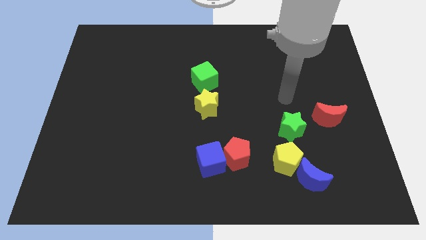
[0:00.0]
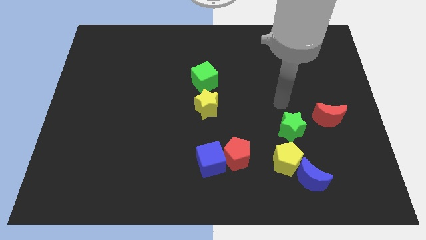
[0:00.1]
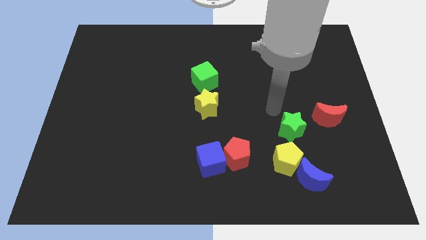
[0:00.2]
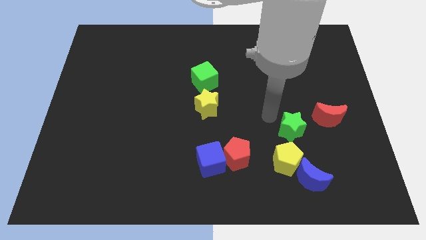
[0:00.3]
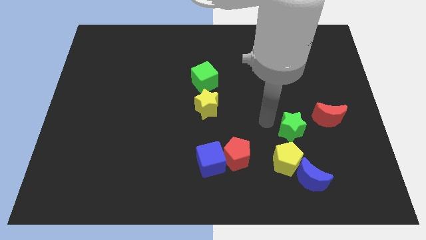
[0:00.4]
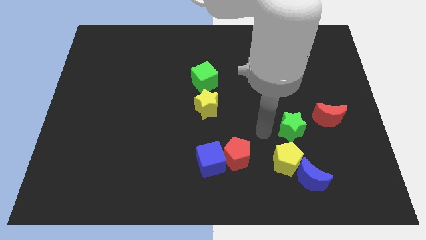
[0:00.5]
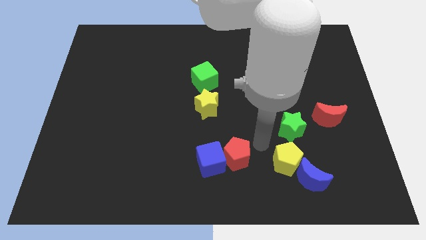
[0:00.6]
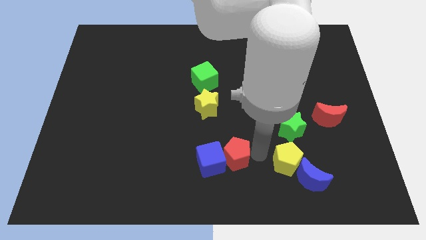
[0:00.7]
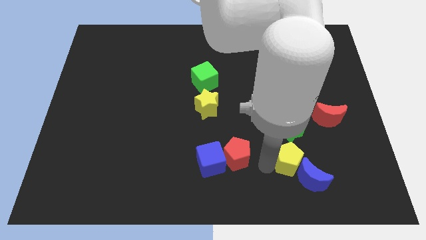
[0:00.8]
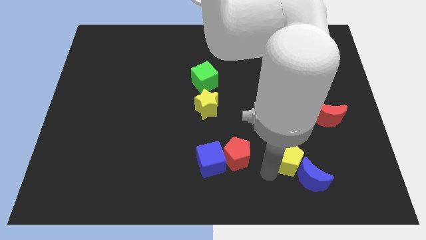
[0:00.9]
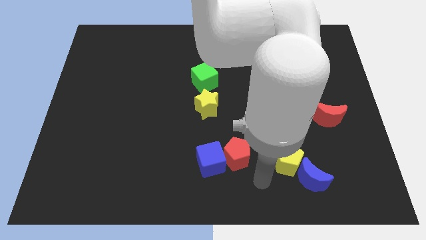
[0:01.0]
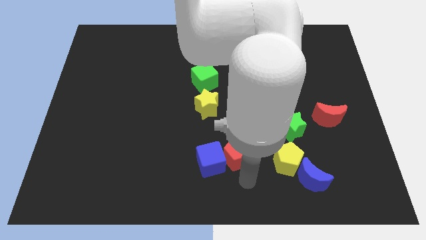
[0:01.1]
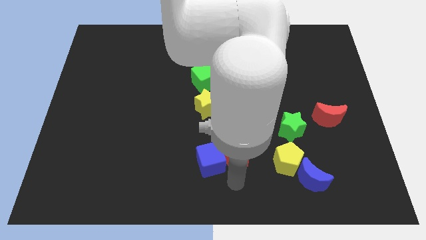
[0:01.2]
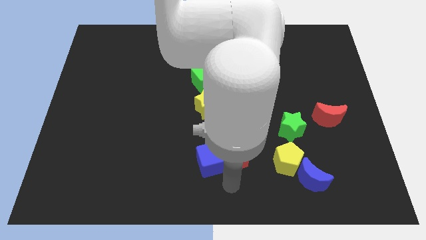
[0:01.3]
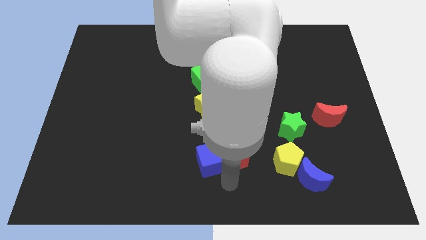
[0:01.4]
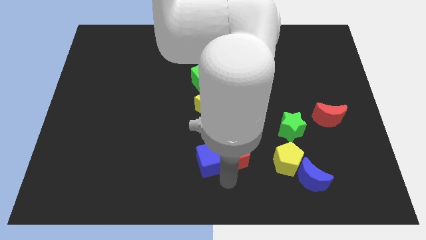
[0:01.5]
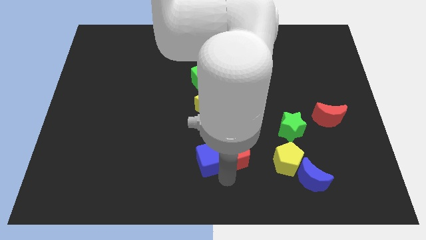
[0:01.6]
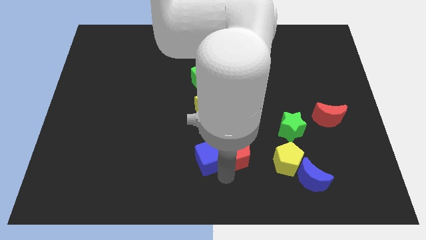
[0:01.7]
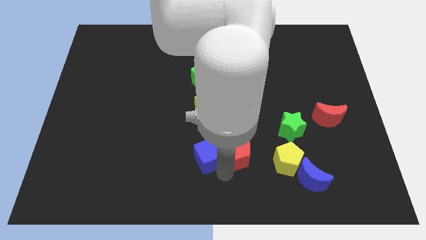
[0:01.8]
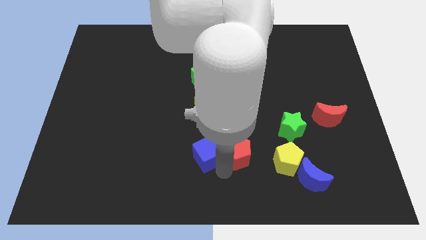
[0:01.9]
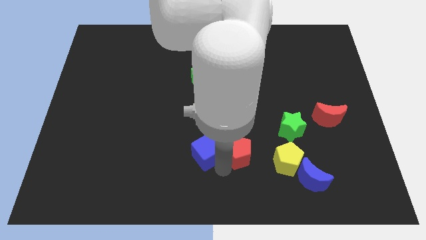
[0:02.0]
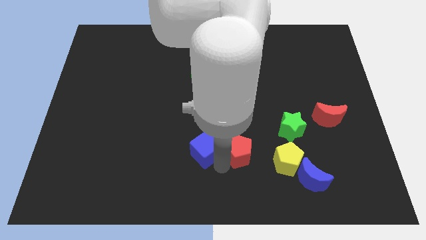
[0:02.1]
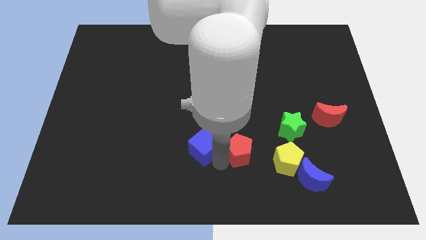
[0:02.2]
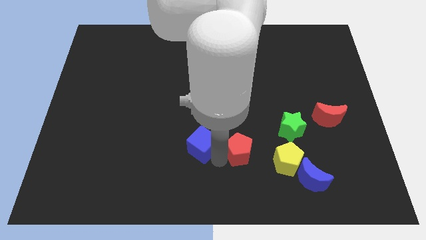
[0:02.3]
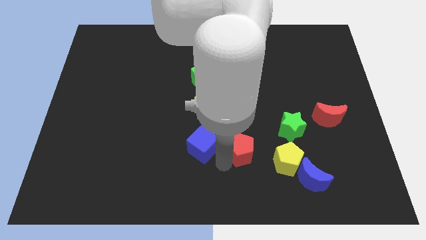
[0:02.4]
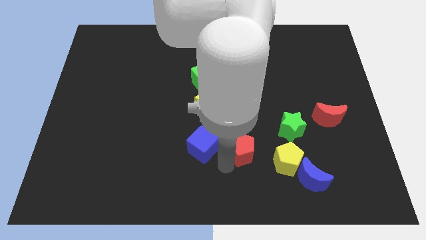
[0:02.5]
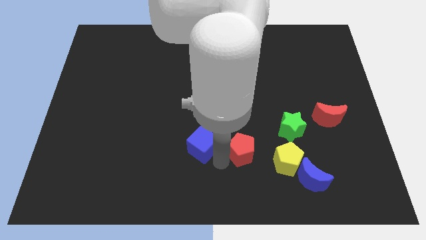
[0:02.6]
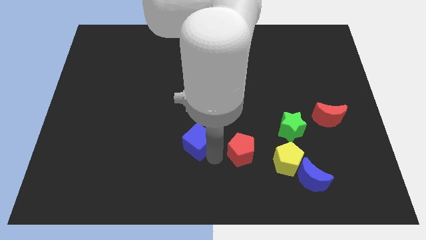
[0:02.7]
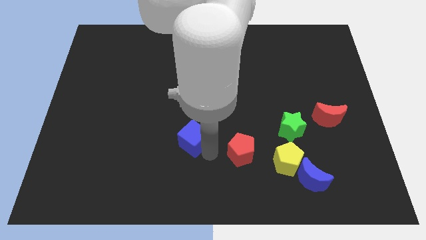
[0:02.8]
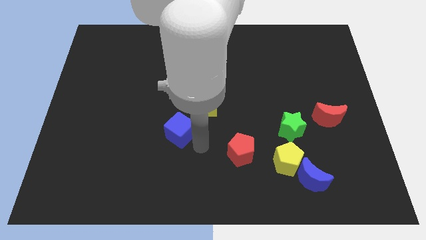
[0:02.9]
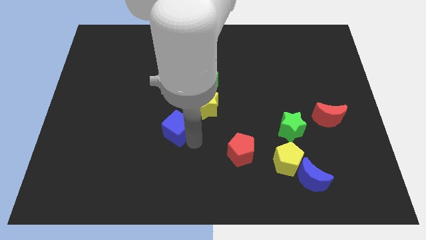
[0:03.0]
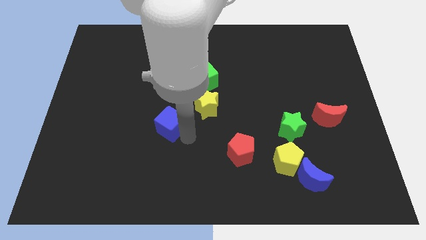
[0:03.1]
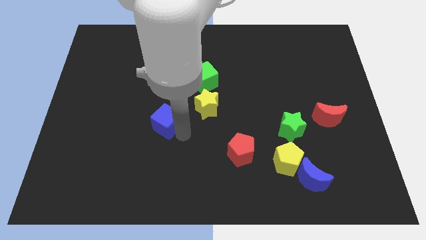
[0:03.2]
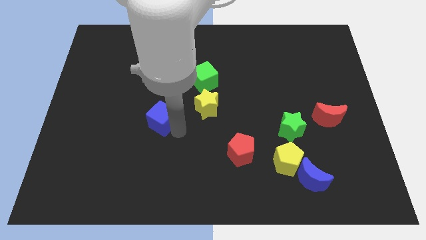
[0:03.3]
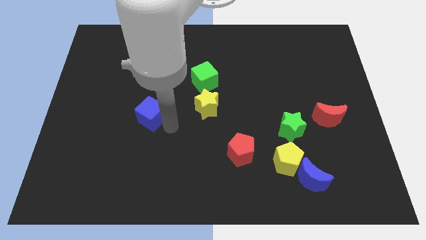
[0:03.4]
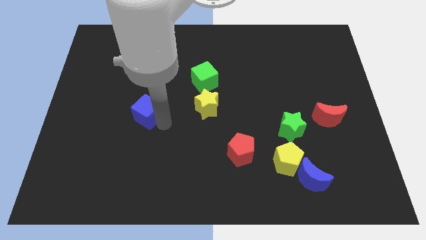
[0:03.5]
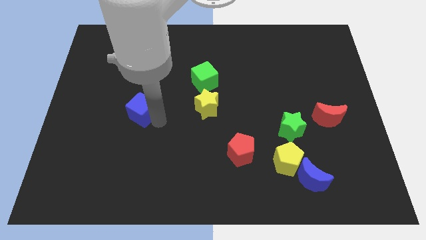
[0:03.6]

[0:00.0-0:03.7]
slide the blue cube diagonally up and to the left

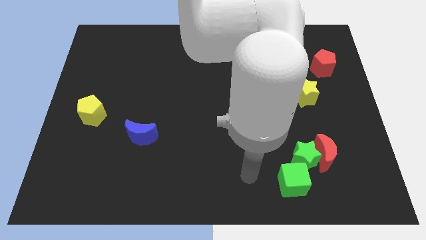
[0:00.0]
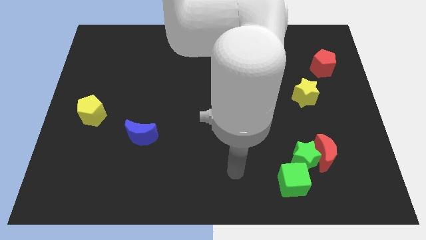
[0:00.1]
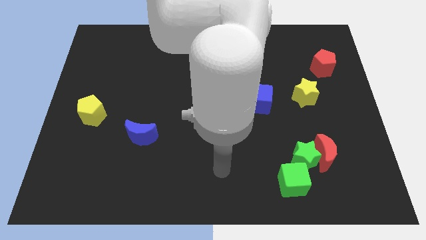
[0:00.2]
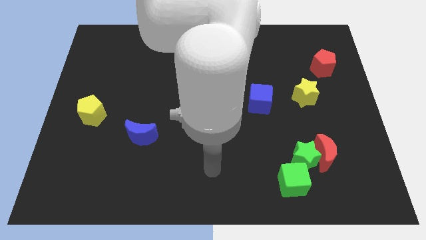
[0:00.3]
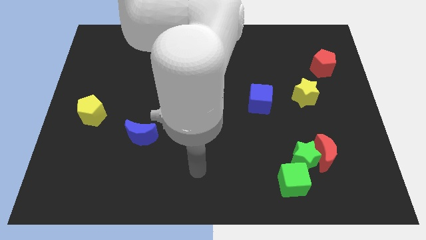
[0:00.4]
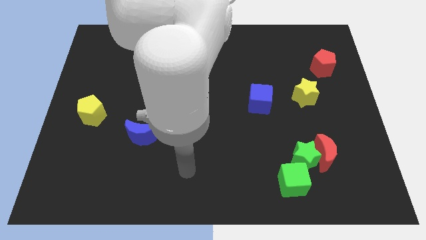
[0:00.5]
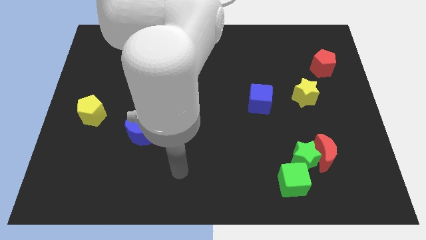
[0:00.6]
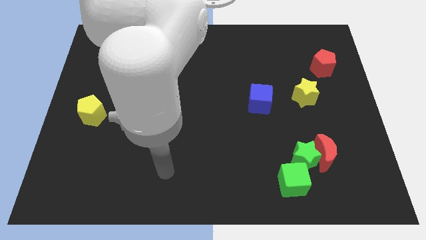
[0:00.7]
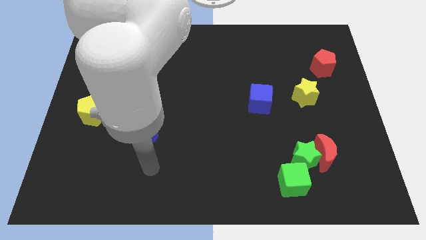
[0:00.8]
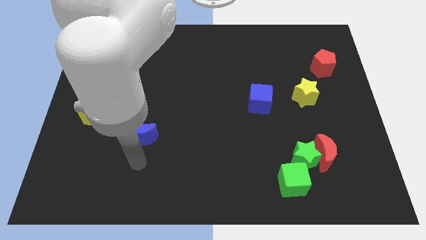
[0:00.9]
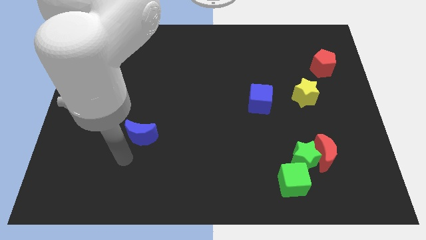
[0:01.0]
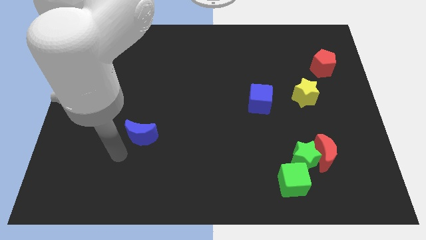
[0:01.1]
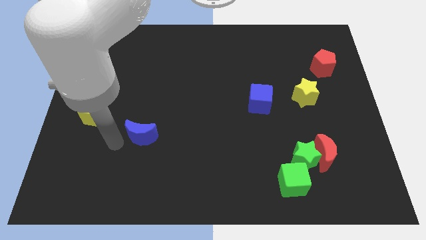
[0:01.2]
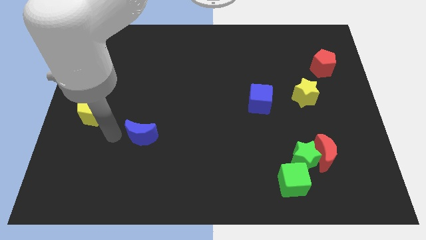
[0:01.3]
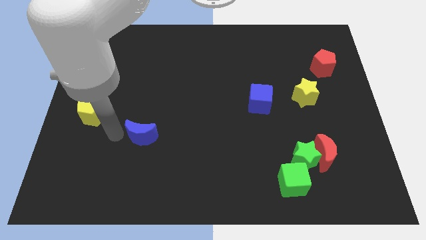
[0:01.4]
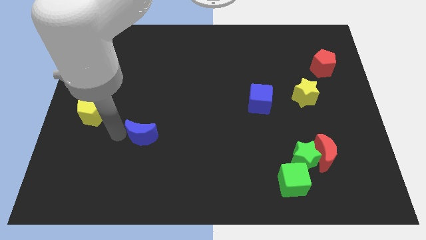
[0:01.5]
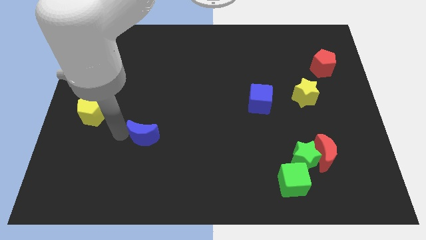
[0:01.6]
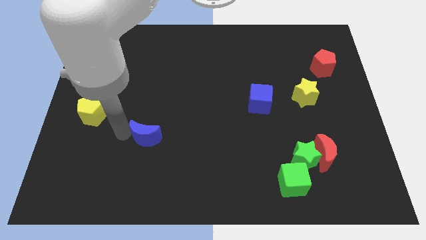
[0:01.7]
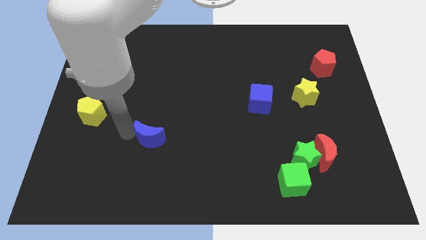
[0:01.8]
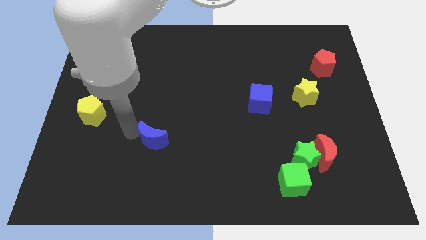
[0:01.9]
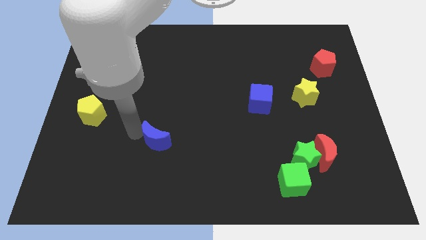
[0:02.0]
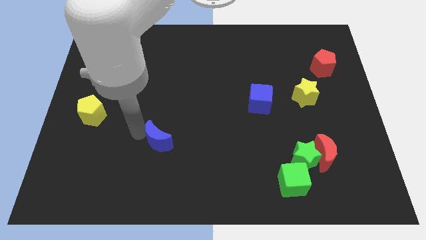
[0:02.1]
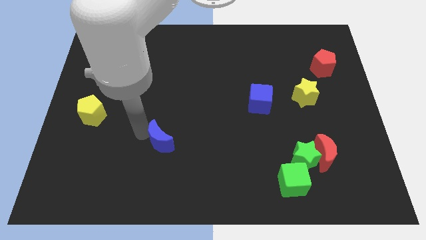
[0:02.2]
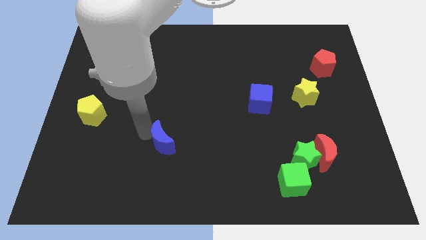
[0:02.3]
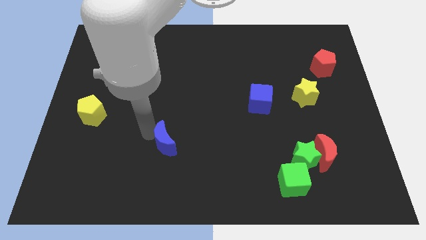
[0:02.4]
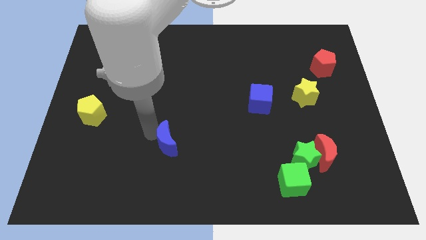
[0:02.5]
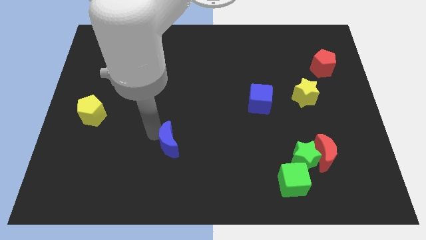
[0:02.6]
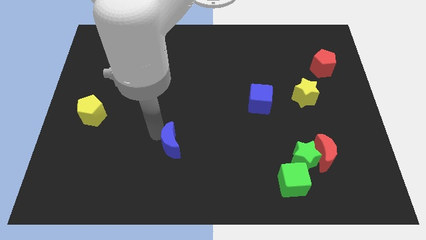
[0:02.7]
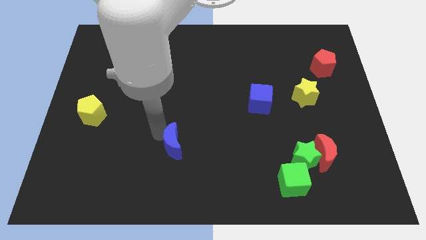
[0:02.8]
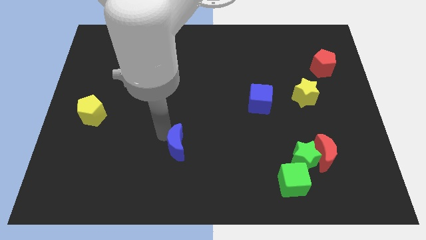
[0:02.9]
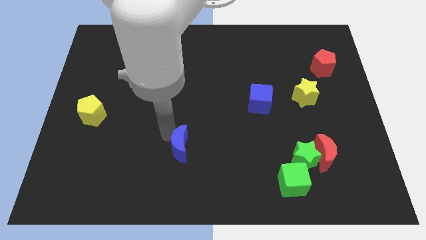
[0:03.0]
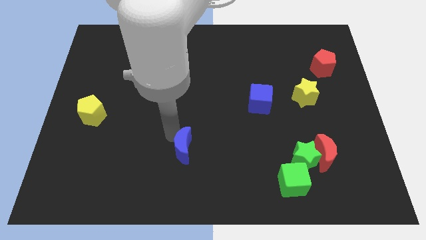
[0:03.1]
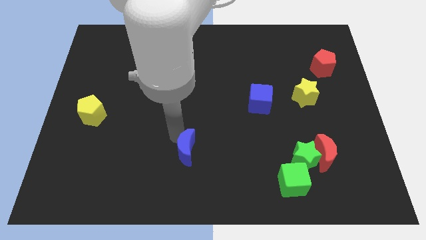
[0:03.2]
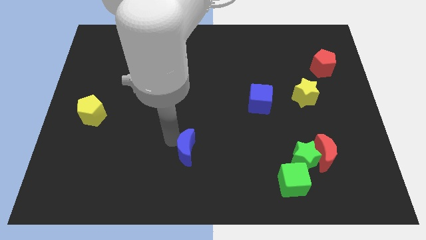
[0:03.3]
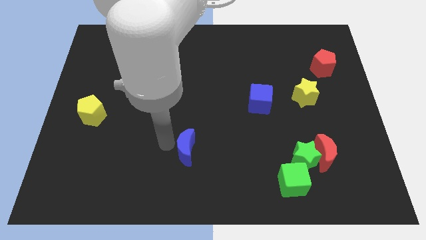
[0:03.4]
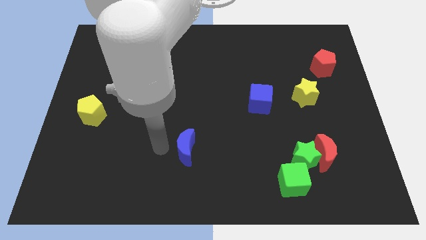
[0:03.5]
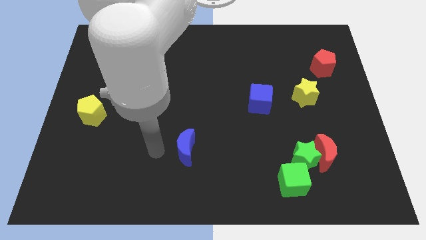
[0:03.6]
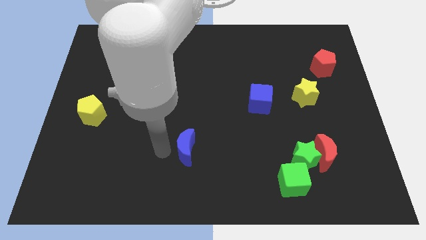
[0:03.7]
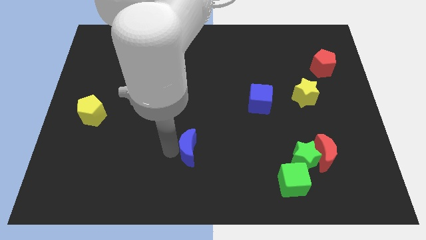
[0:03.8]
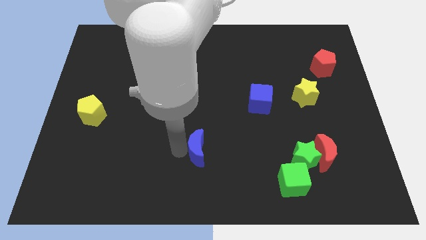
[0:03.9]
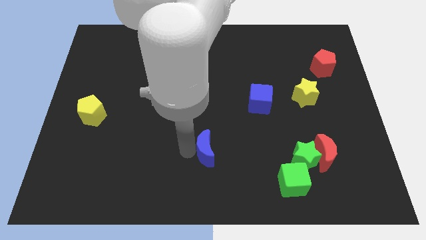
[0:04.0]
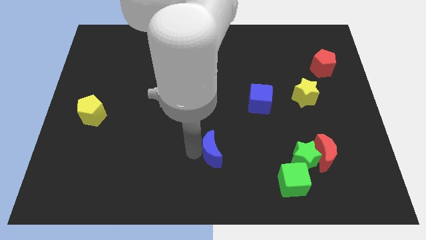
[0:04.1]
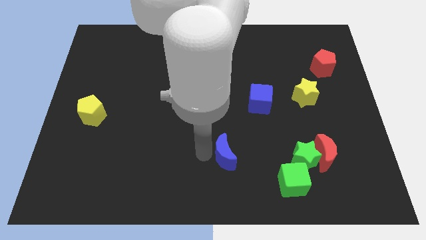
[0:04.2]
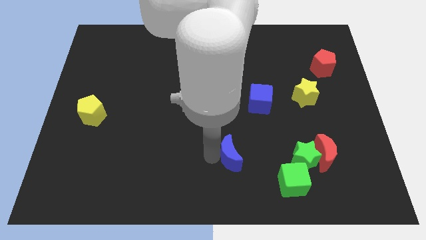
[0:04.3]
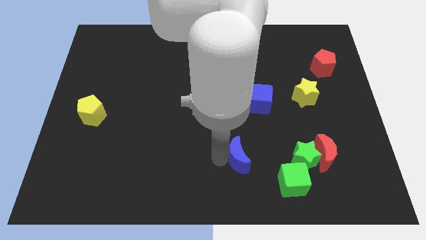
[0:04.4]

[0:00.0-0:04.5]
push the blue moon to the right
